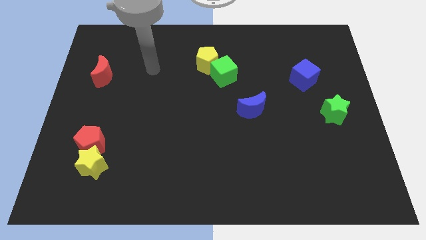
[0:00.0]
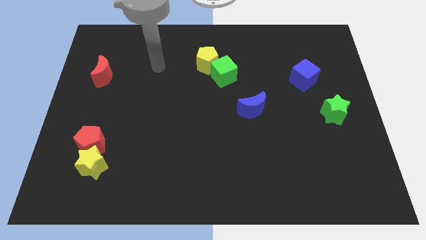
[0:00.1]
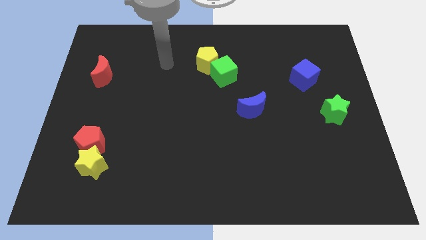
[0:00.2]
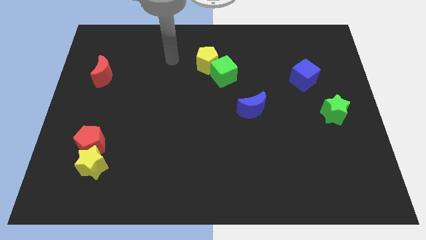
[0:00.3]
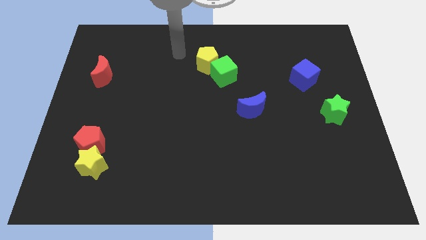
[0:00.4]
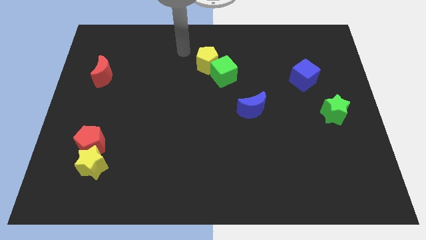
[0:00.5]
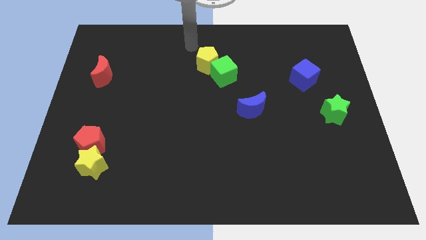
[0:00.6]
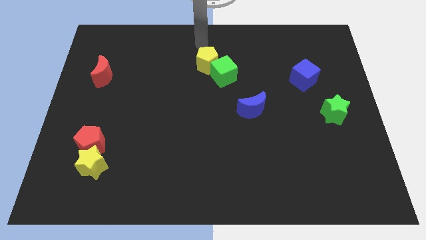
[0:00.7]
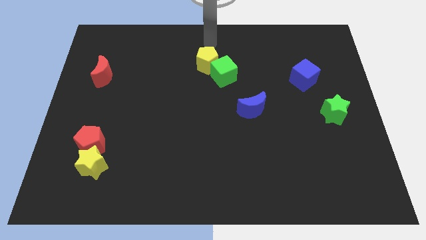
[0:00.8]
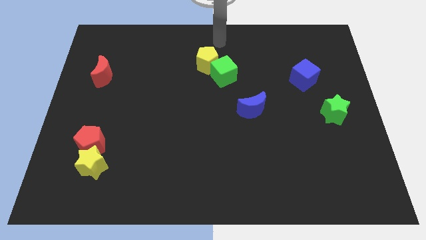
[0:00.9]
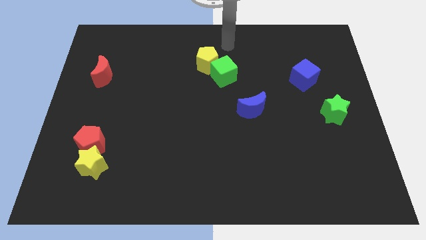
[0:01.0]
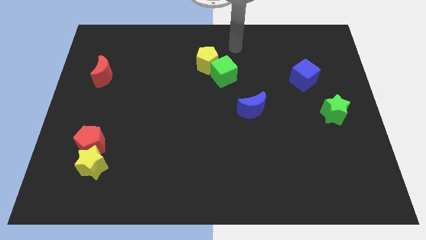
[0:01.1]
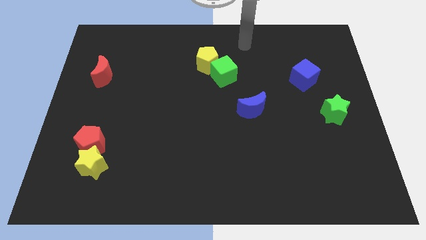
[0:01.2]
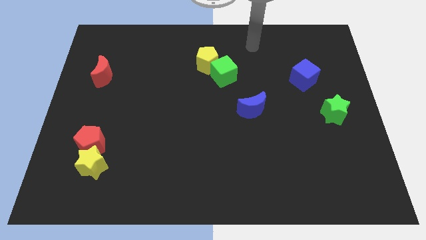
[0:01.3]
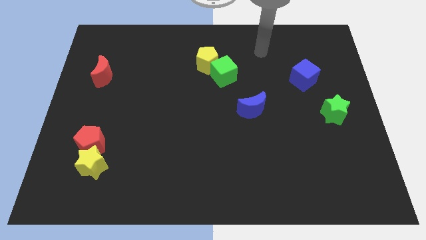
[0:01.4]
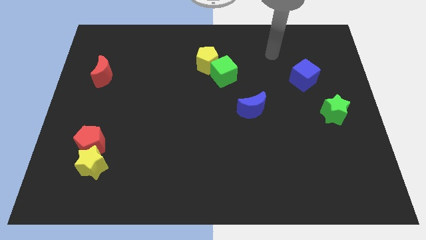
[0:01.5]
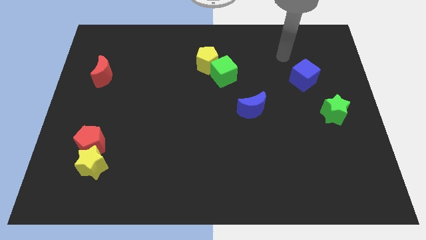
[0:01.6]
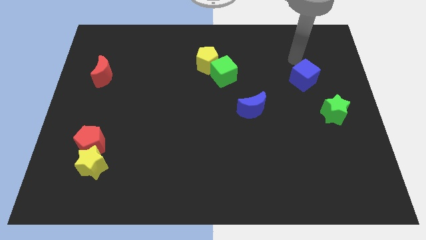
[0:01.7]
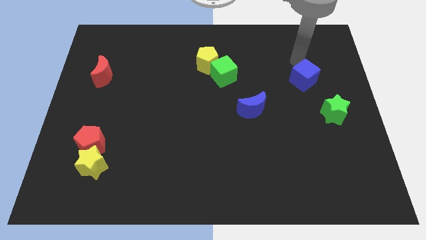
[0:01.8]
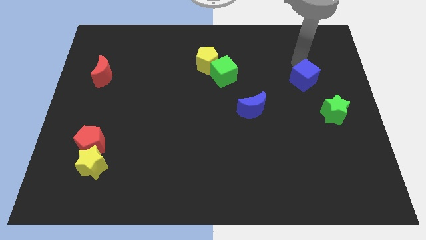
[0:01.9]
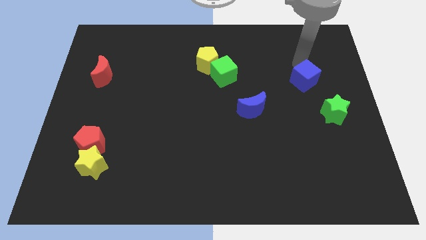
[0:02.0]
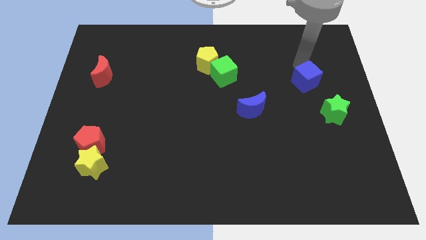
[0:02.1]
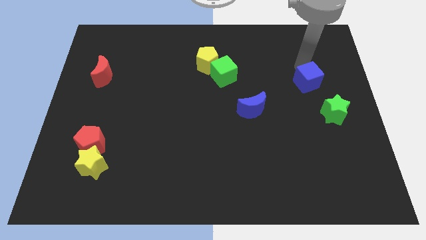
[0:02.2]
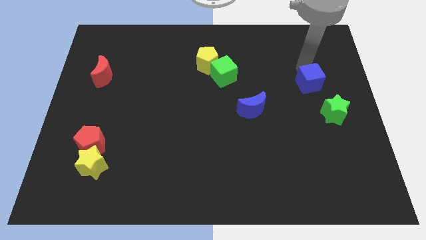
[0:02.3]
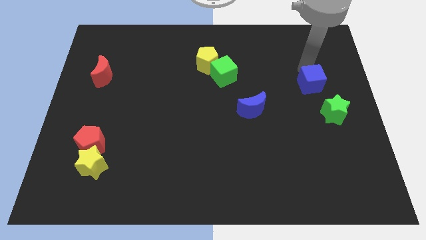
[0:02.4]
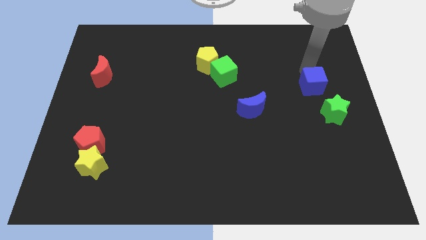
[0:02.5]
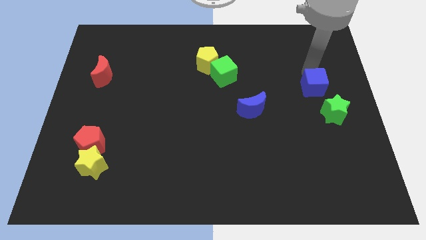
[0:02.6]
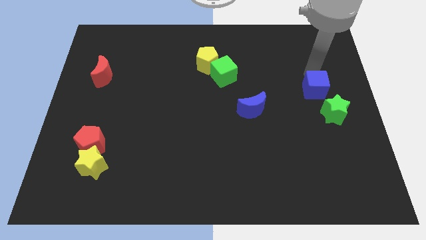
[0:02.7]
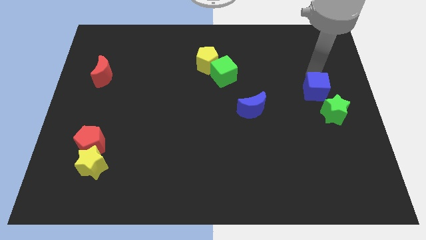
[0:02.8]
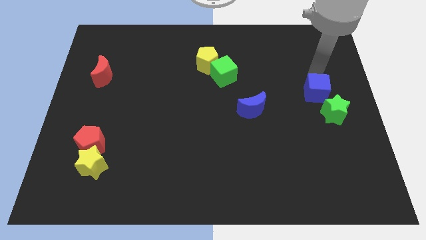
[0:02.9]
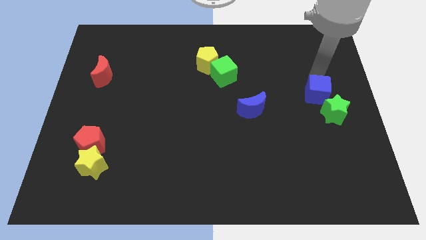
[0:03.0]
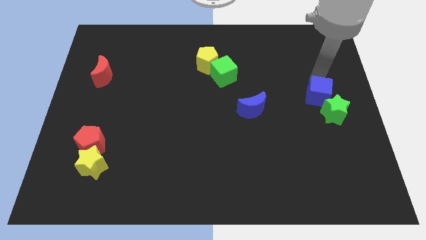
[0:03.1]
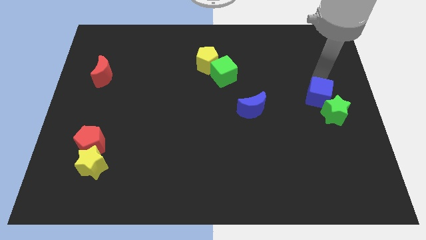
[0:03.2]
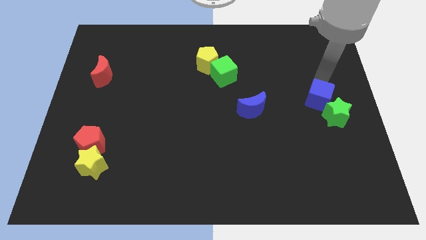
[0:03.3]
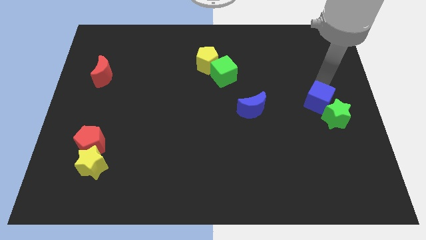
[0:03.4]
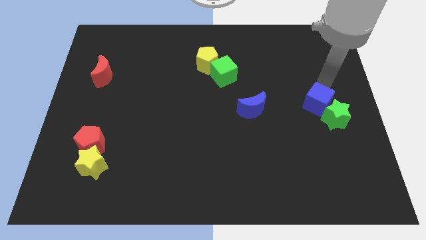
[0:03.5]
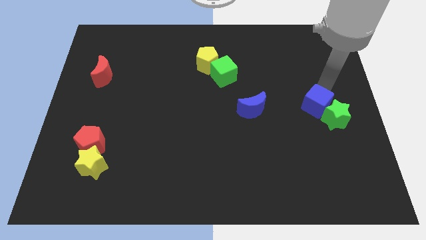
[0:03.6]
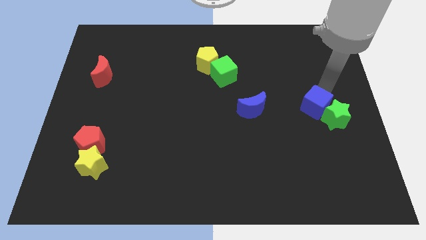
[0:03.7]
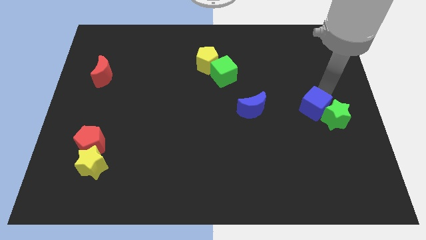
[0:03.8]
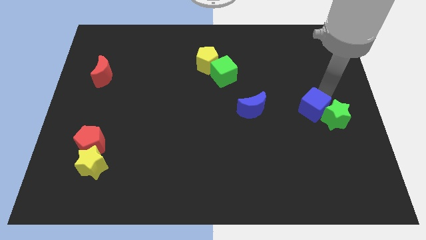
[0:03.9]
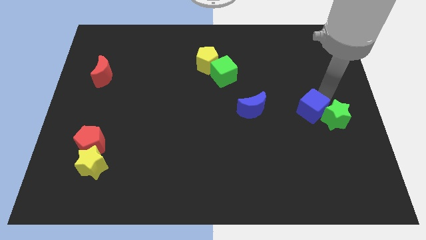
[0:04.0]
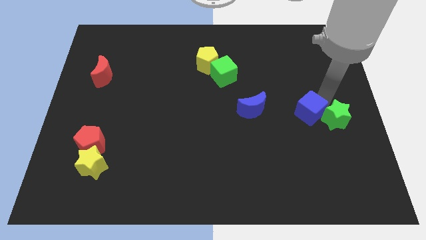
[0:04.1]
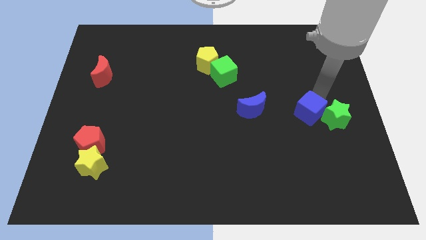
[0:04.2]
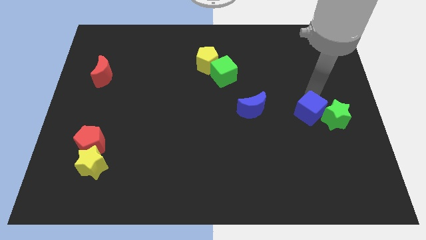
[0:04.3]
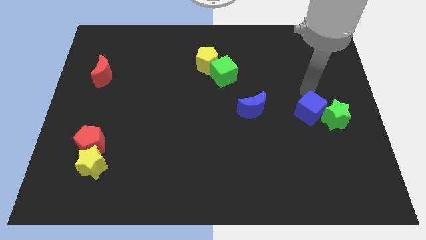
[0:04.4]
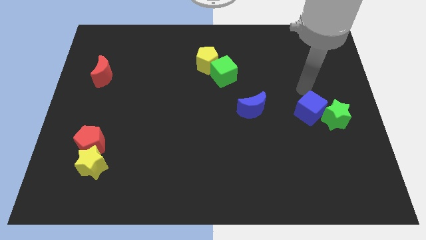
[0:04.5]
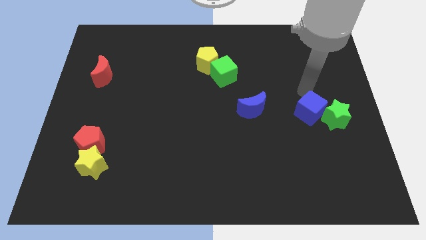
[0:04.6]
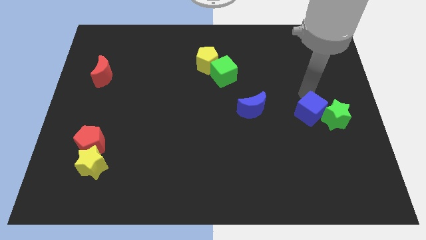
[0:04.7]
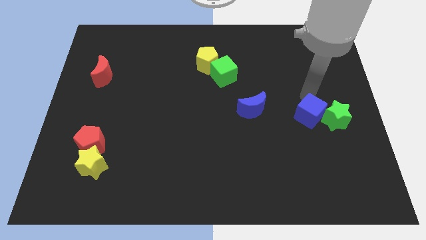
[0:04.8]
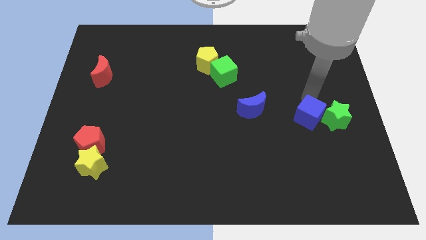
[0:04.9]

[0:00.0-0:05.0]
move the blue cube to the bottom left of the green star

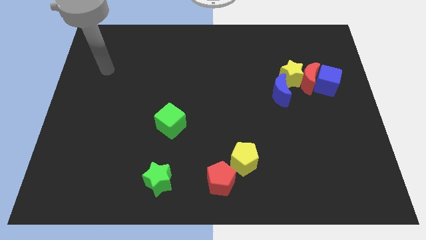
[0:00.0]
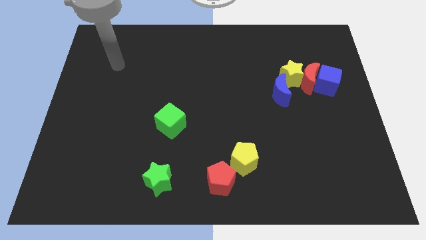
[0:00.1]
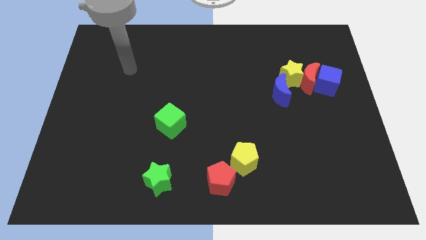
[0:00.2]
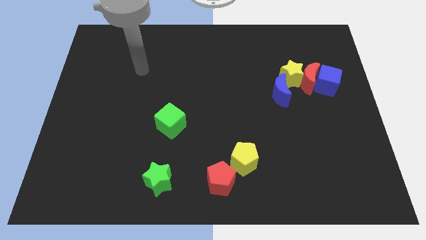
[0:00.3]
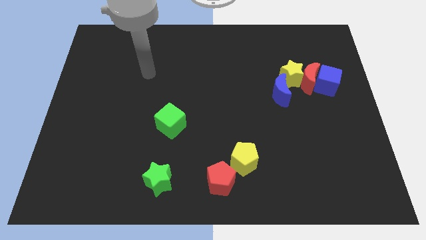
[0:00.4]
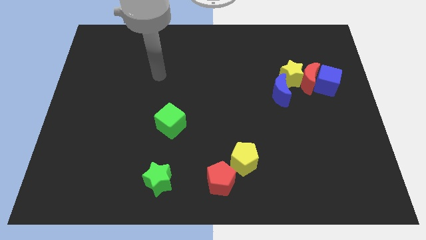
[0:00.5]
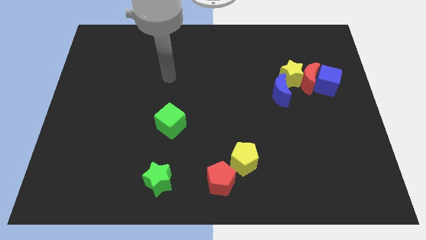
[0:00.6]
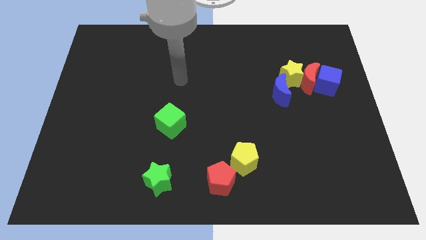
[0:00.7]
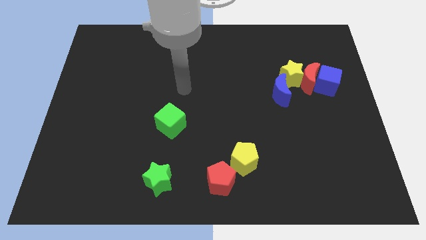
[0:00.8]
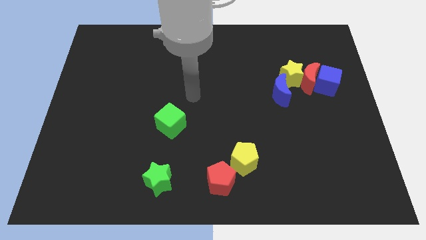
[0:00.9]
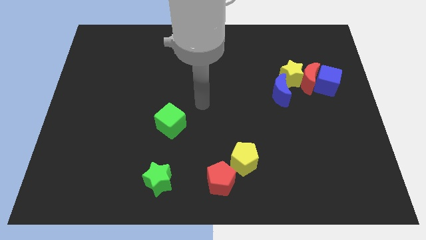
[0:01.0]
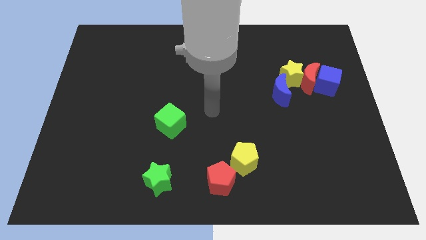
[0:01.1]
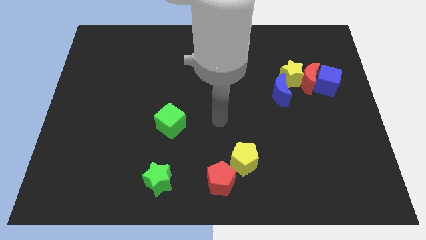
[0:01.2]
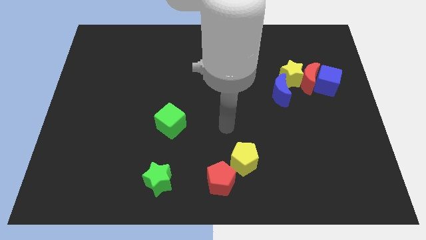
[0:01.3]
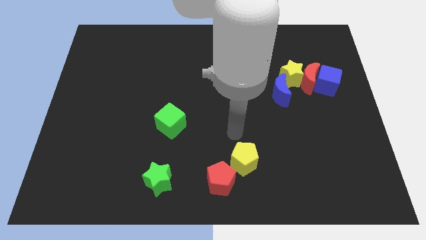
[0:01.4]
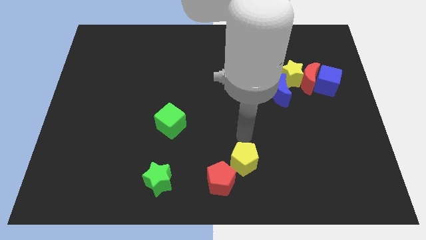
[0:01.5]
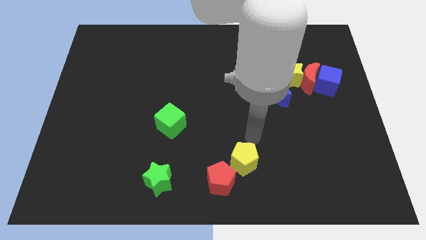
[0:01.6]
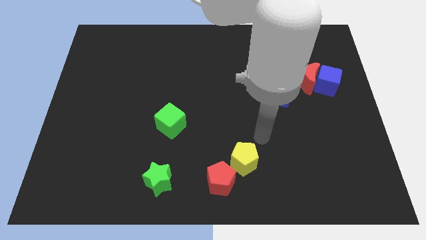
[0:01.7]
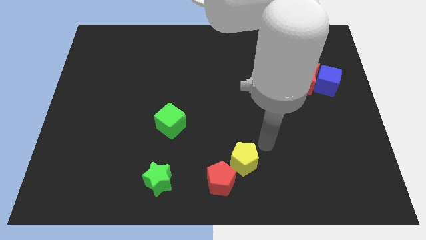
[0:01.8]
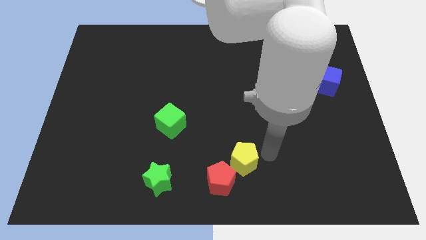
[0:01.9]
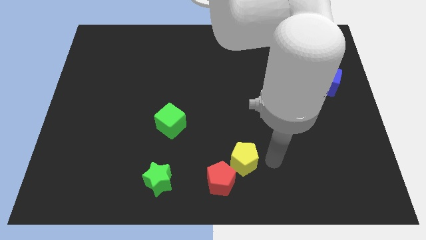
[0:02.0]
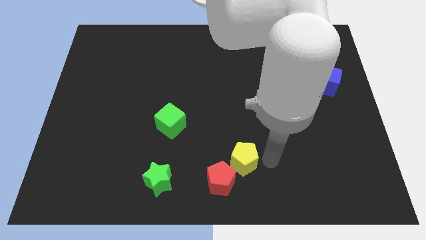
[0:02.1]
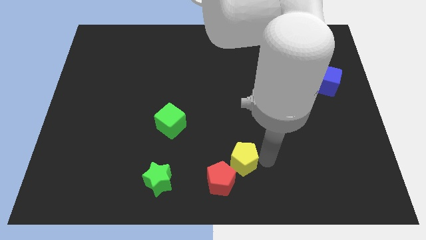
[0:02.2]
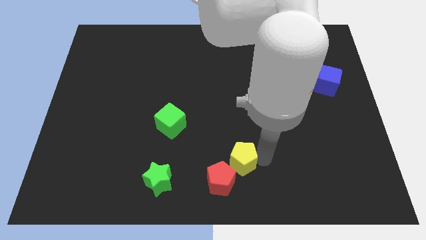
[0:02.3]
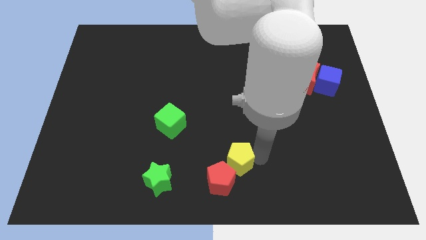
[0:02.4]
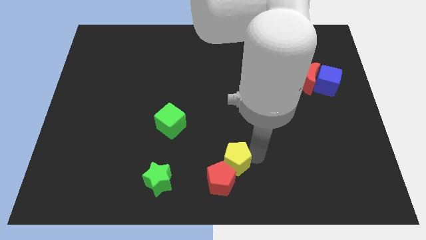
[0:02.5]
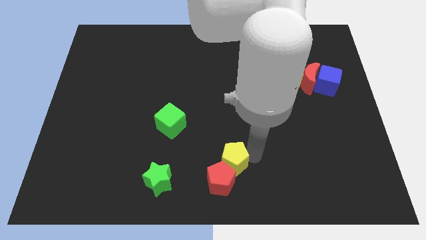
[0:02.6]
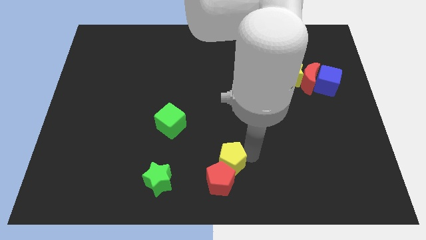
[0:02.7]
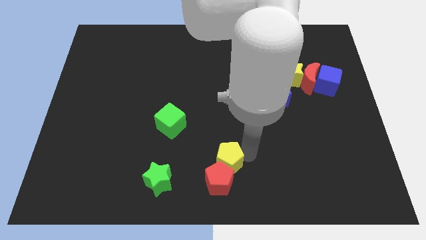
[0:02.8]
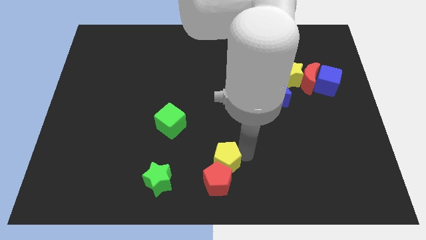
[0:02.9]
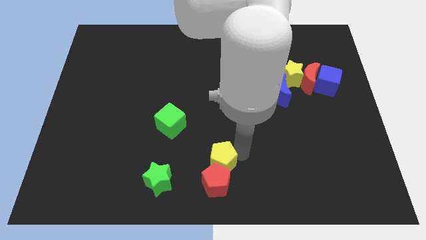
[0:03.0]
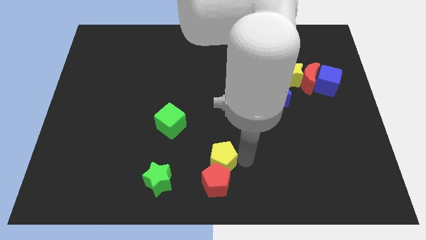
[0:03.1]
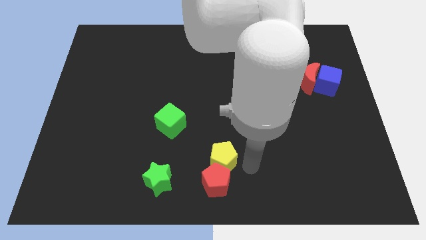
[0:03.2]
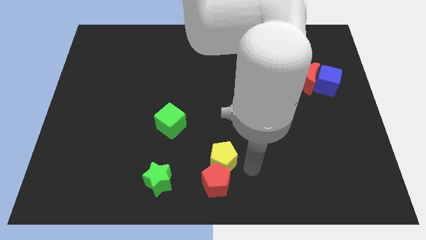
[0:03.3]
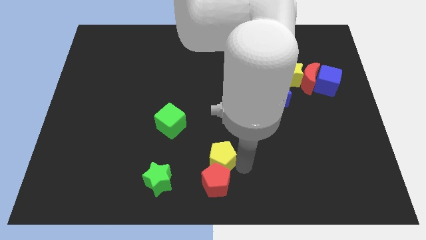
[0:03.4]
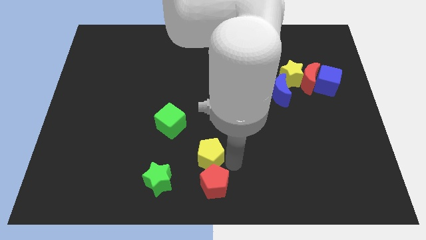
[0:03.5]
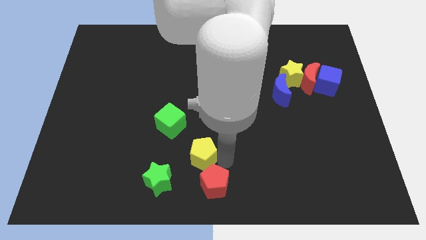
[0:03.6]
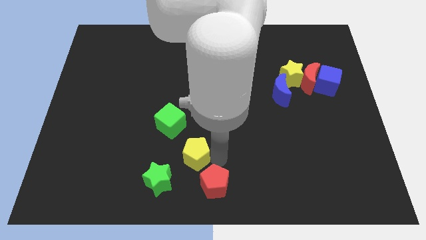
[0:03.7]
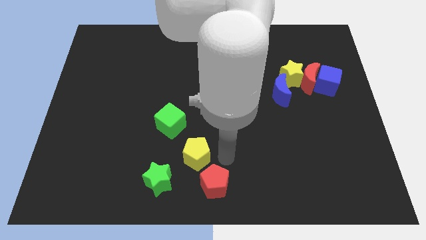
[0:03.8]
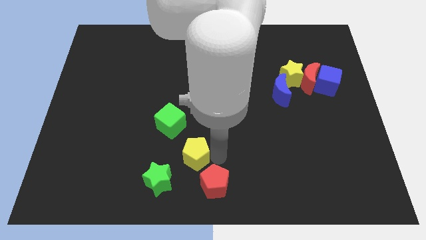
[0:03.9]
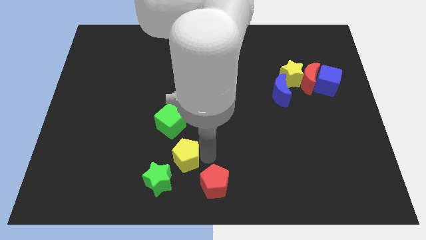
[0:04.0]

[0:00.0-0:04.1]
put the yellow pentagon above the green star
